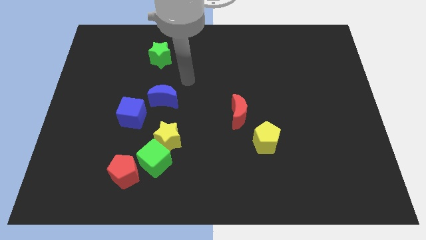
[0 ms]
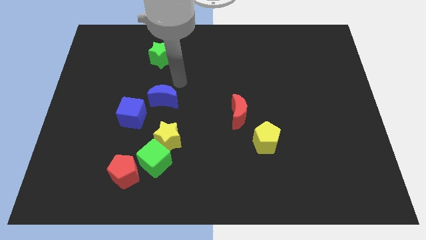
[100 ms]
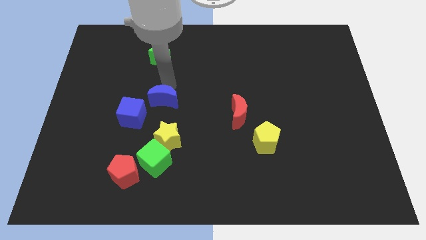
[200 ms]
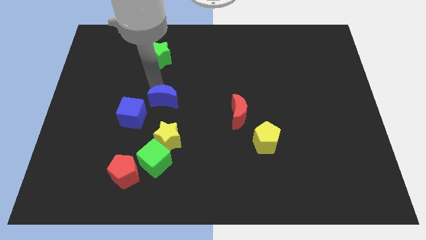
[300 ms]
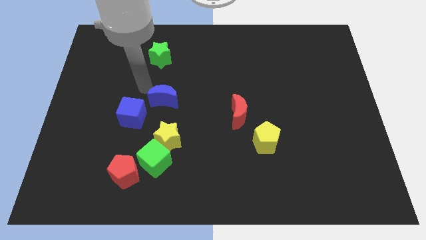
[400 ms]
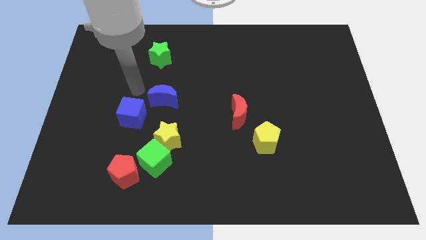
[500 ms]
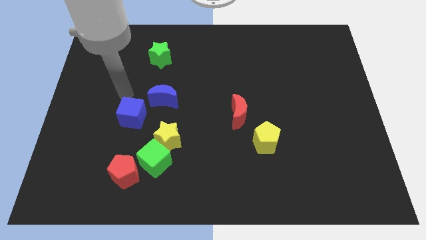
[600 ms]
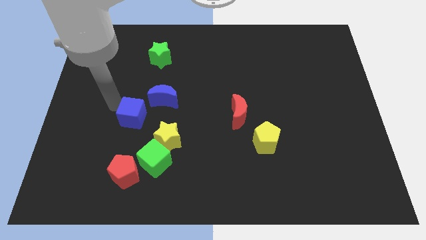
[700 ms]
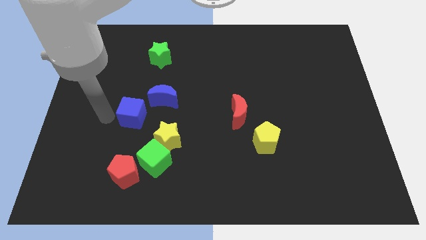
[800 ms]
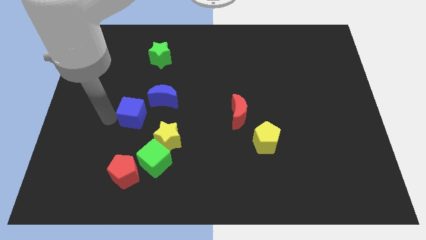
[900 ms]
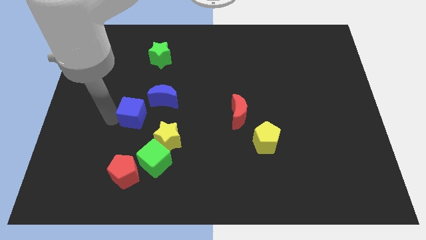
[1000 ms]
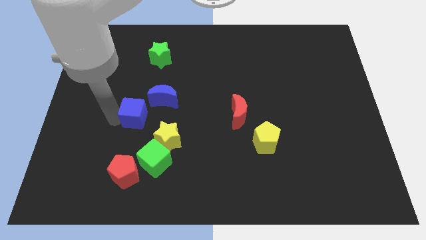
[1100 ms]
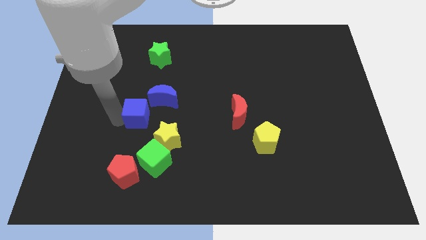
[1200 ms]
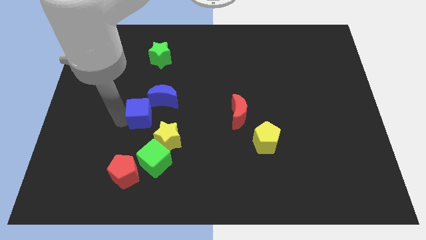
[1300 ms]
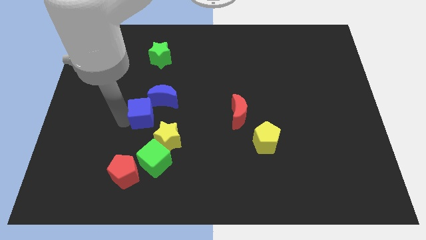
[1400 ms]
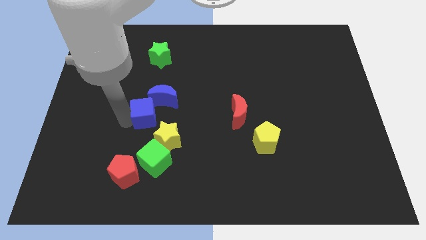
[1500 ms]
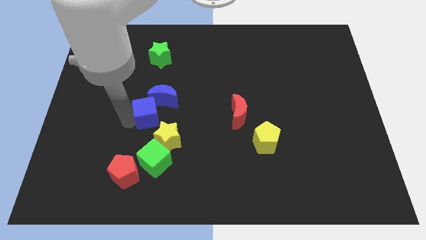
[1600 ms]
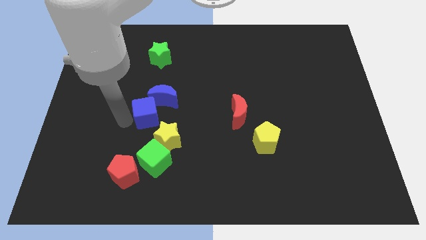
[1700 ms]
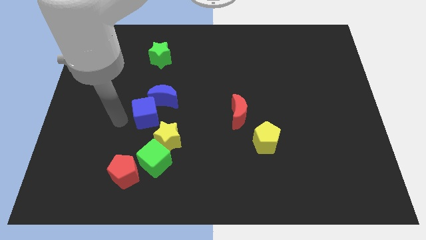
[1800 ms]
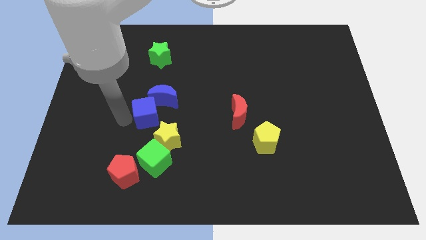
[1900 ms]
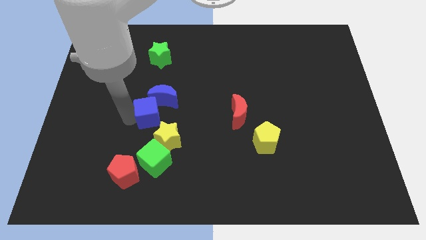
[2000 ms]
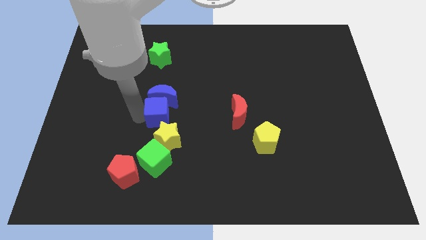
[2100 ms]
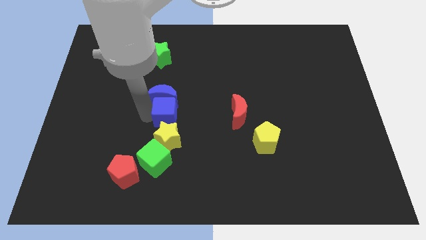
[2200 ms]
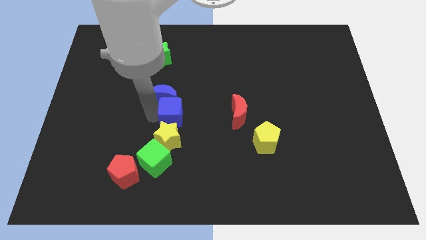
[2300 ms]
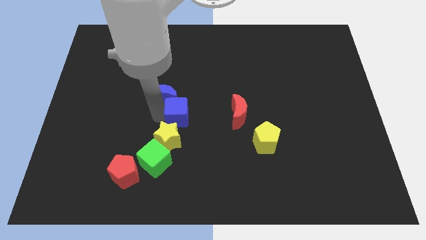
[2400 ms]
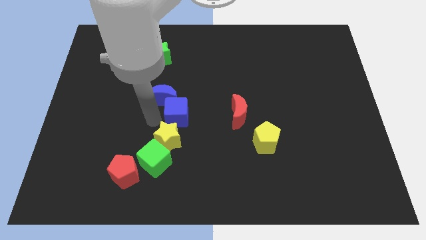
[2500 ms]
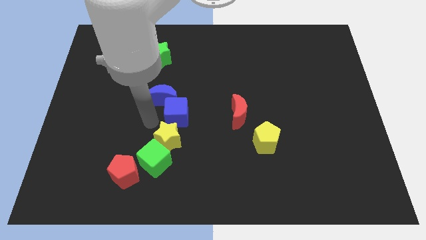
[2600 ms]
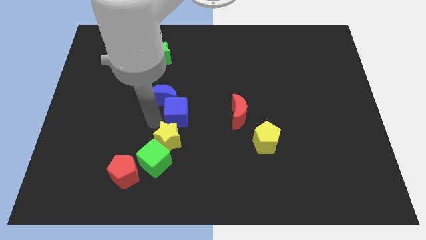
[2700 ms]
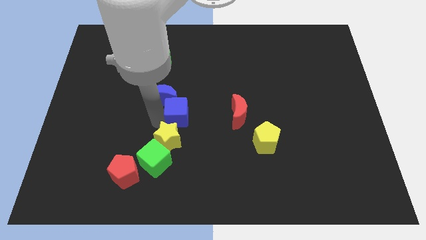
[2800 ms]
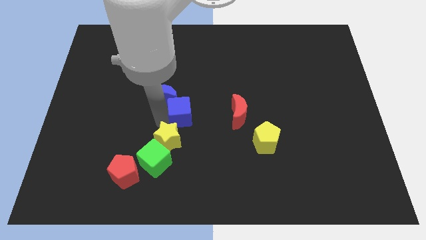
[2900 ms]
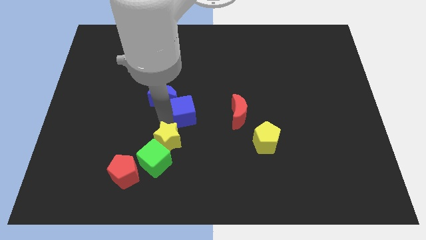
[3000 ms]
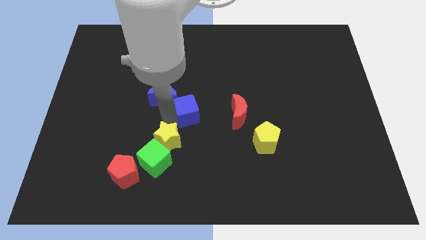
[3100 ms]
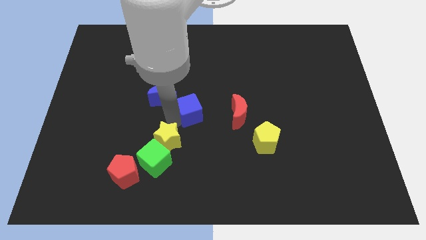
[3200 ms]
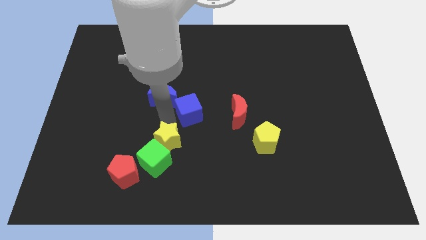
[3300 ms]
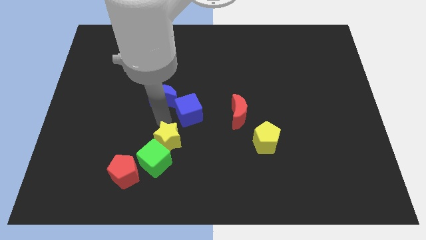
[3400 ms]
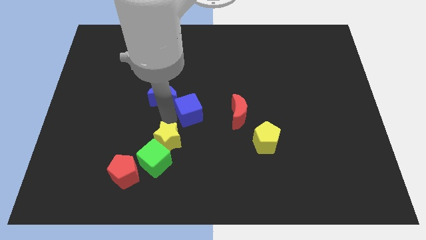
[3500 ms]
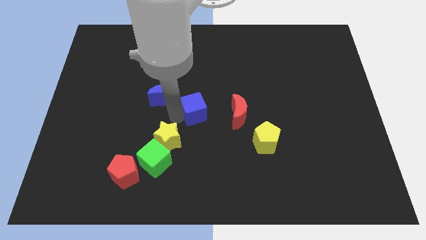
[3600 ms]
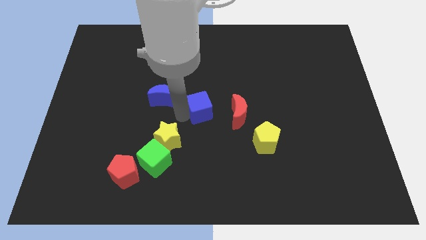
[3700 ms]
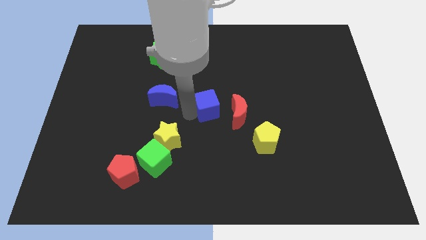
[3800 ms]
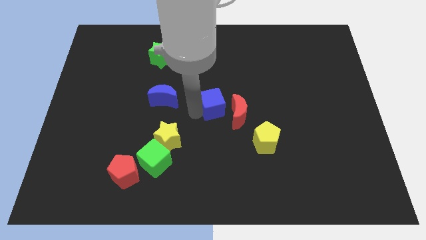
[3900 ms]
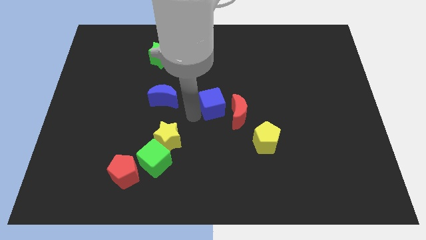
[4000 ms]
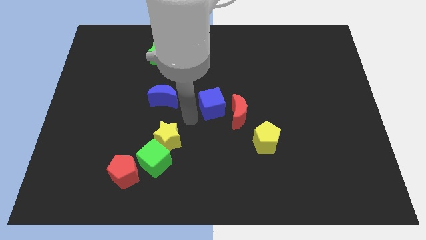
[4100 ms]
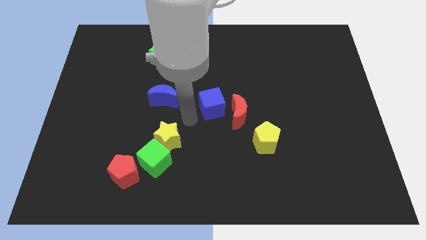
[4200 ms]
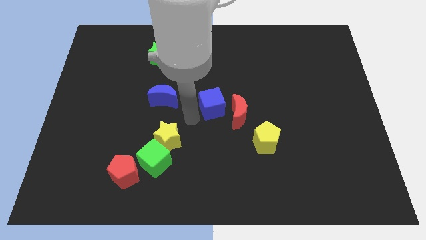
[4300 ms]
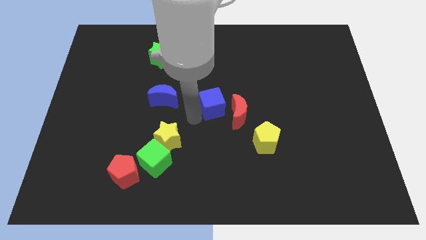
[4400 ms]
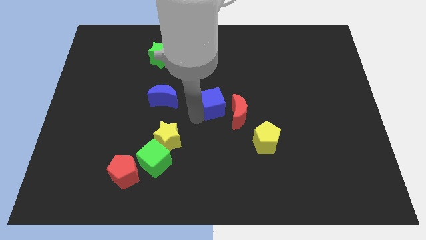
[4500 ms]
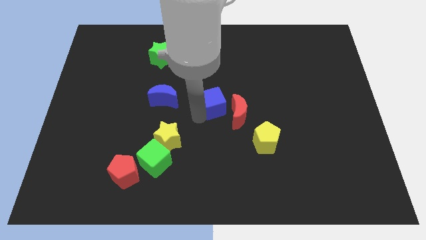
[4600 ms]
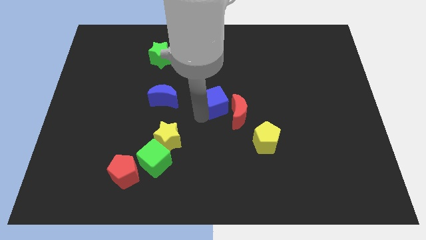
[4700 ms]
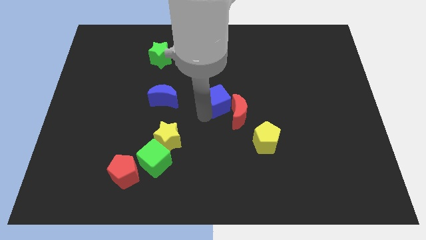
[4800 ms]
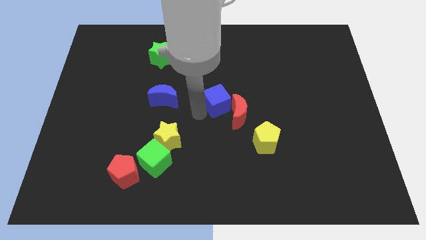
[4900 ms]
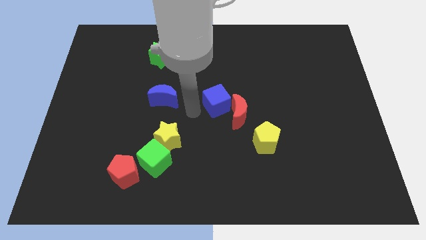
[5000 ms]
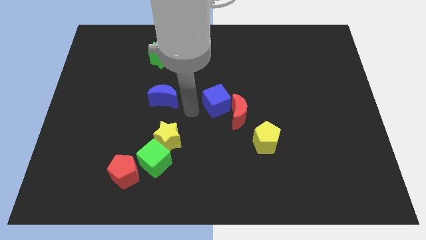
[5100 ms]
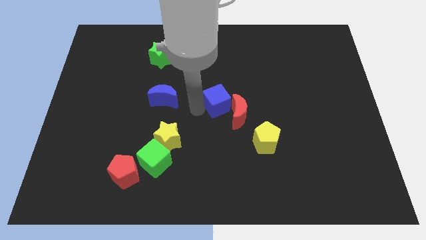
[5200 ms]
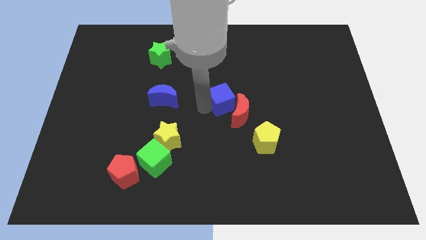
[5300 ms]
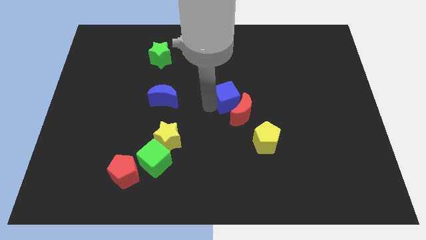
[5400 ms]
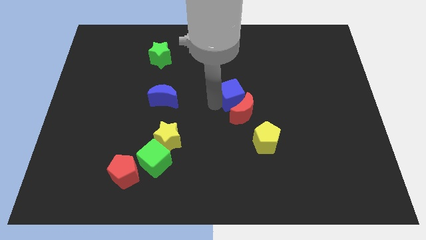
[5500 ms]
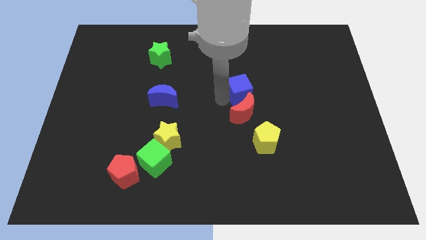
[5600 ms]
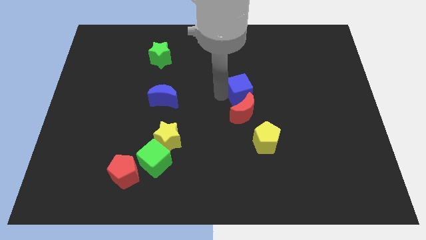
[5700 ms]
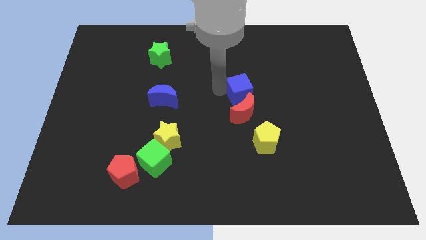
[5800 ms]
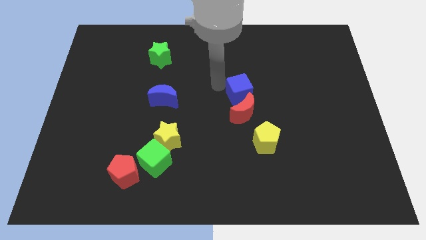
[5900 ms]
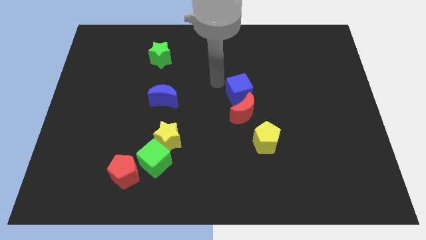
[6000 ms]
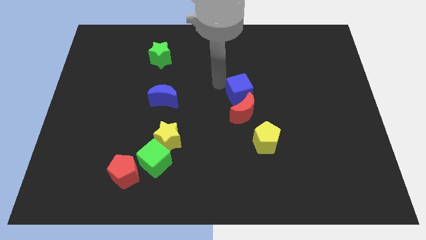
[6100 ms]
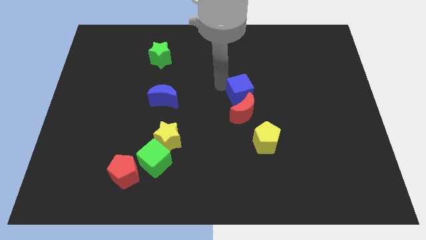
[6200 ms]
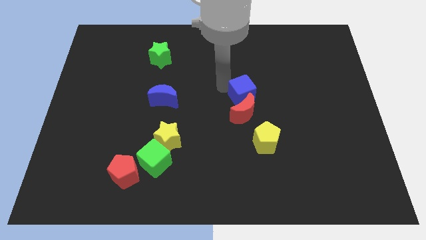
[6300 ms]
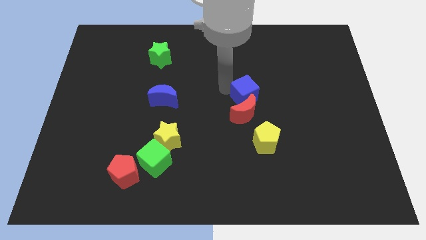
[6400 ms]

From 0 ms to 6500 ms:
push the blue cube to the top of the yellow pentagon
